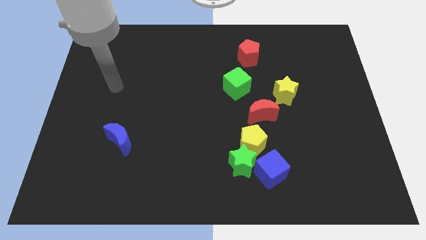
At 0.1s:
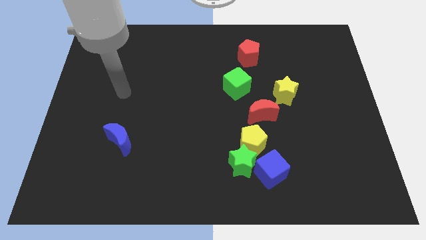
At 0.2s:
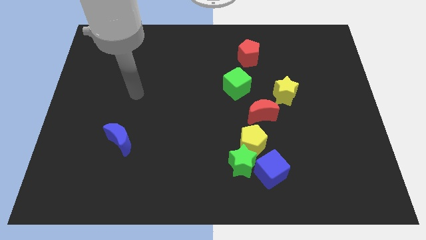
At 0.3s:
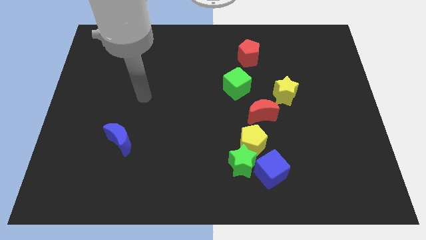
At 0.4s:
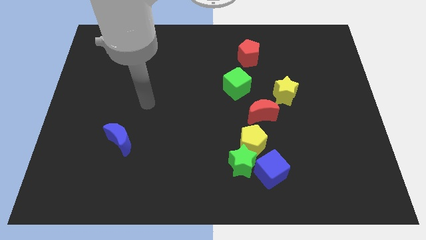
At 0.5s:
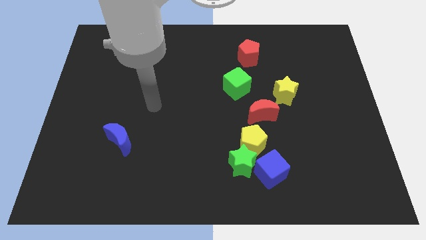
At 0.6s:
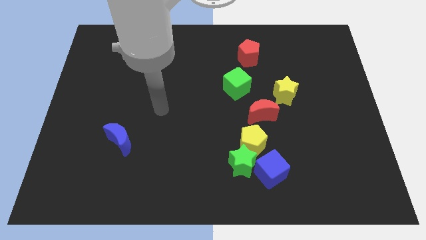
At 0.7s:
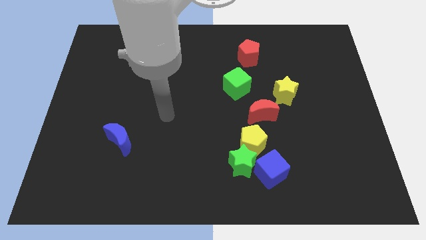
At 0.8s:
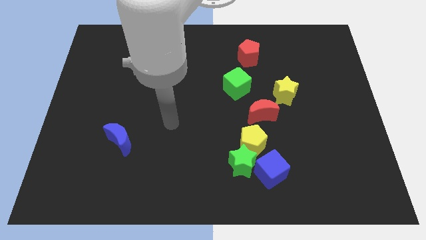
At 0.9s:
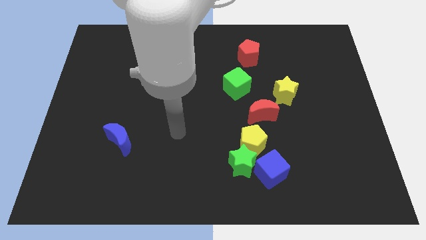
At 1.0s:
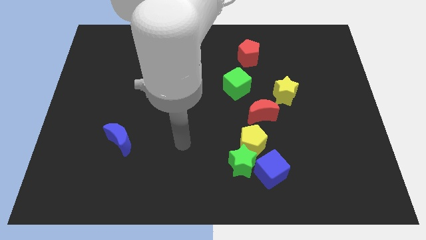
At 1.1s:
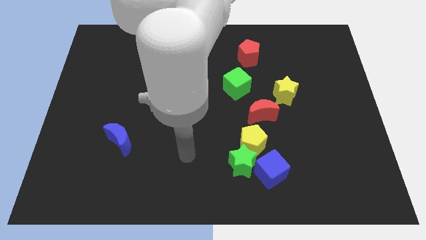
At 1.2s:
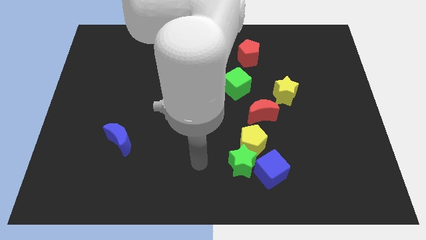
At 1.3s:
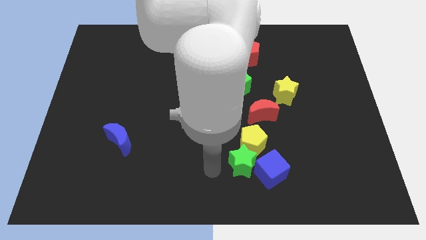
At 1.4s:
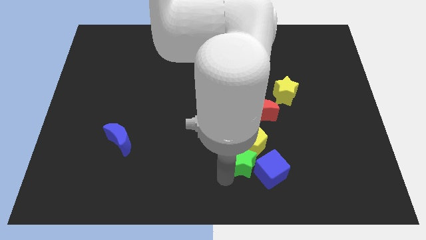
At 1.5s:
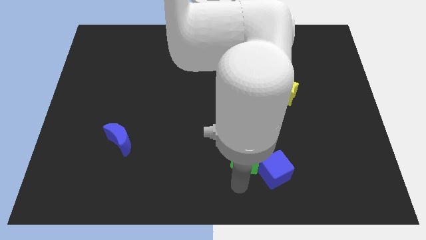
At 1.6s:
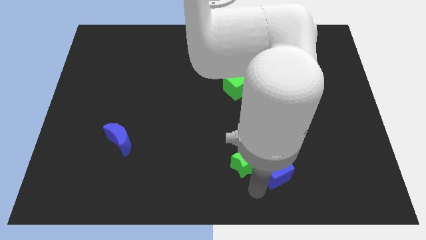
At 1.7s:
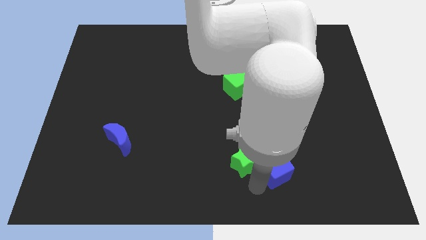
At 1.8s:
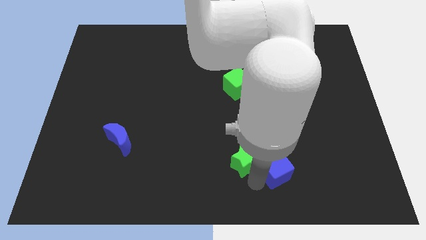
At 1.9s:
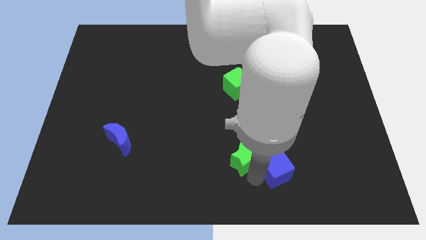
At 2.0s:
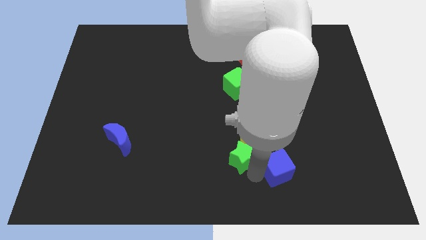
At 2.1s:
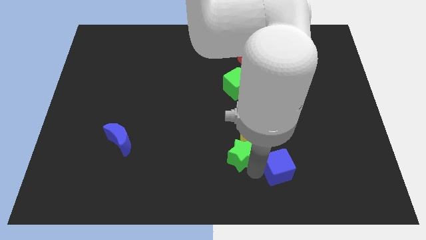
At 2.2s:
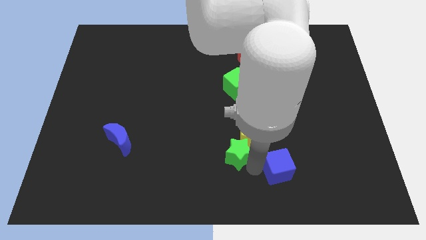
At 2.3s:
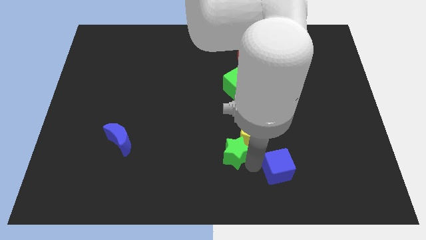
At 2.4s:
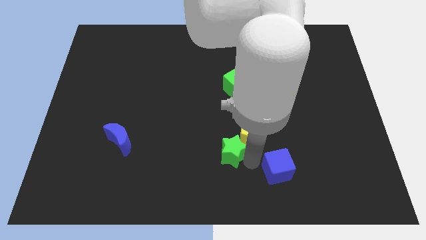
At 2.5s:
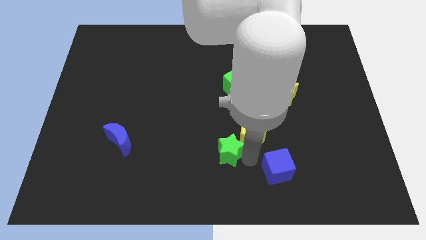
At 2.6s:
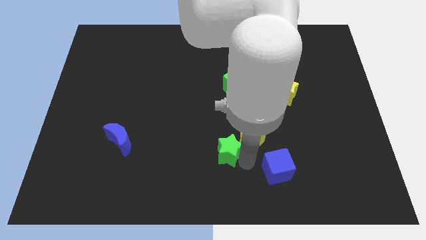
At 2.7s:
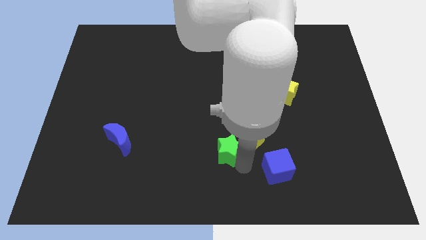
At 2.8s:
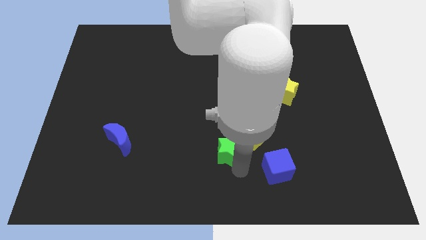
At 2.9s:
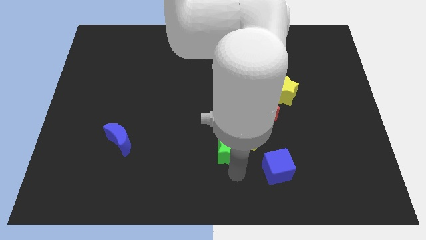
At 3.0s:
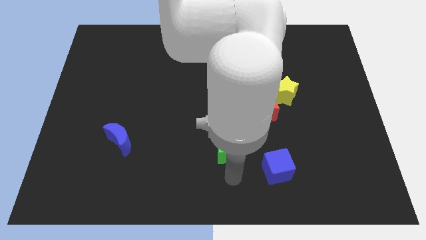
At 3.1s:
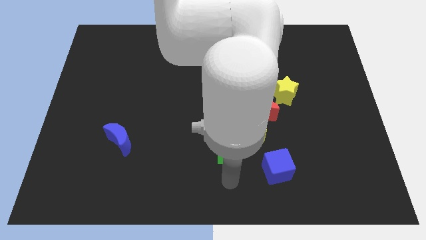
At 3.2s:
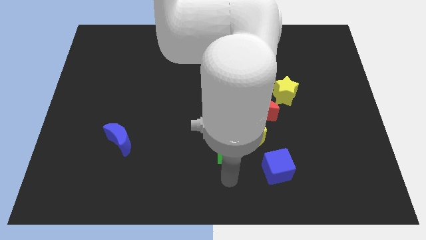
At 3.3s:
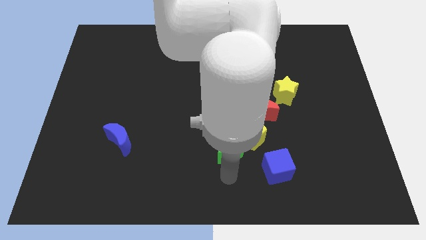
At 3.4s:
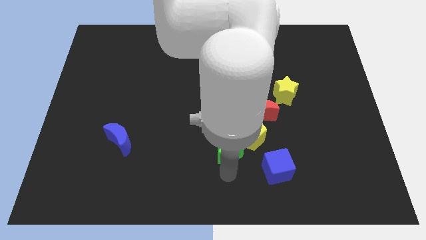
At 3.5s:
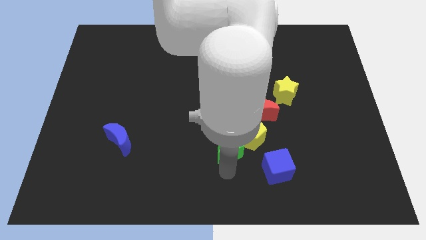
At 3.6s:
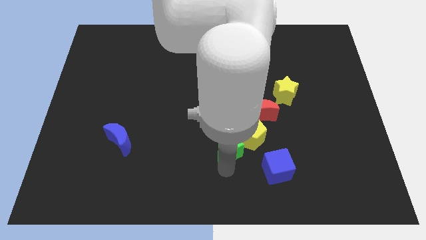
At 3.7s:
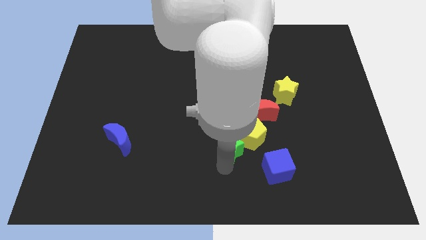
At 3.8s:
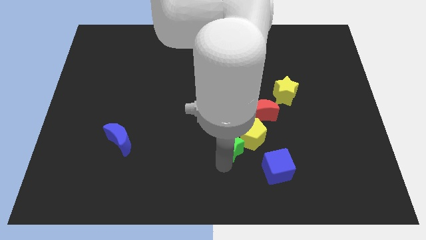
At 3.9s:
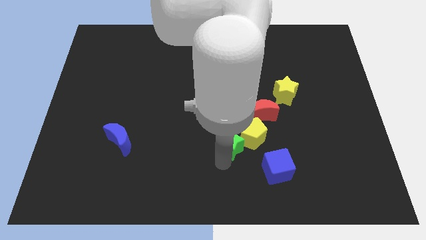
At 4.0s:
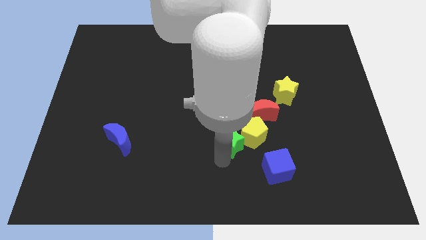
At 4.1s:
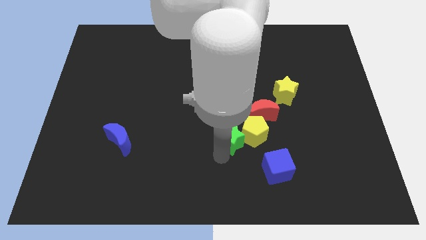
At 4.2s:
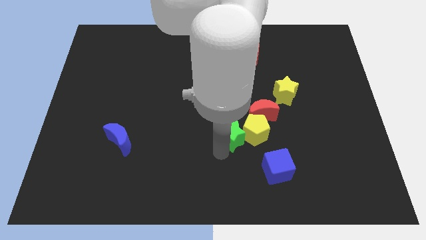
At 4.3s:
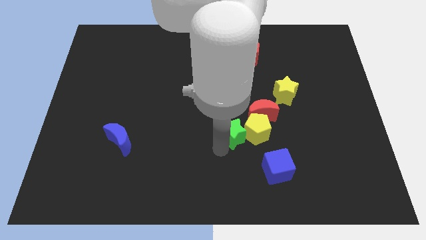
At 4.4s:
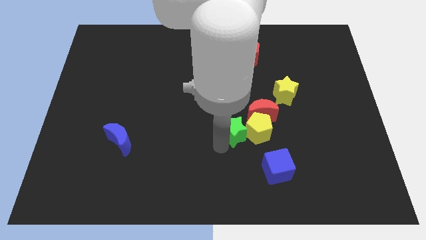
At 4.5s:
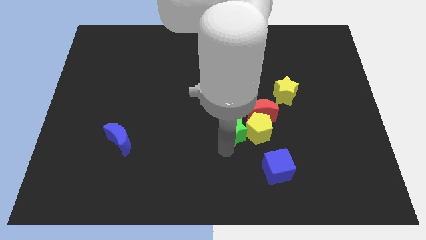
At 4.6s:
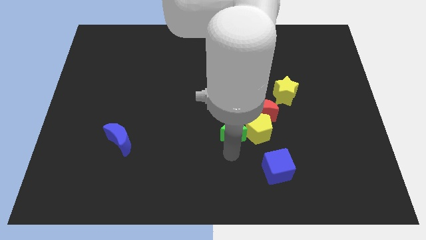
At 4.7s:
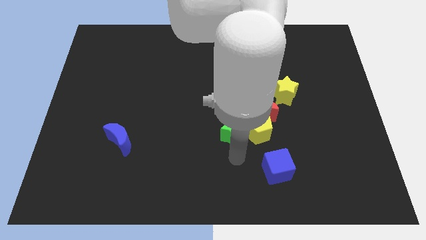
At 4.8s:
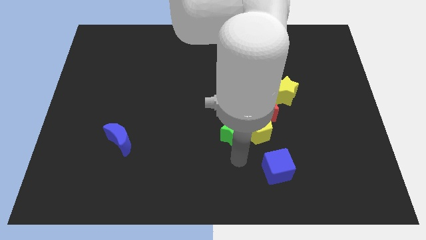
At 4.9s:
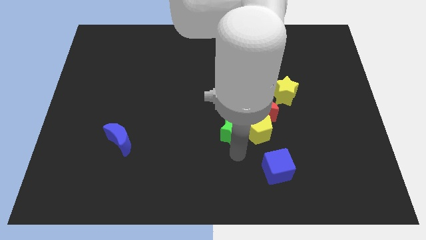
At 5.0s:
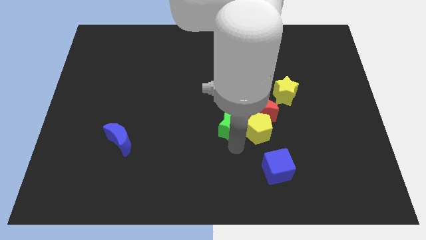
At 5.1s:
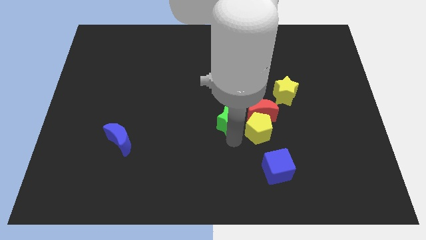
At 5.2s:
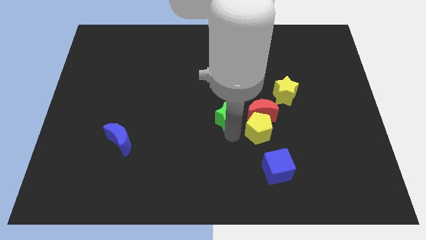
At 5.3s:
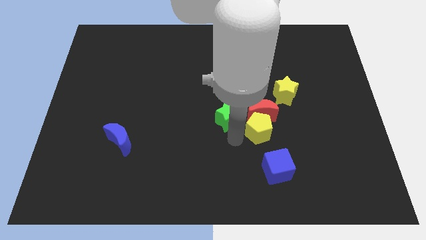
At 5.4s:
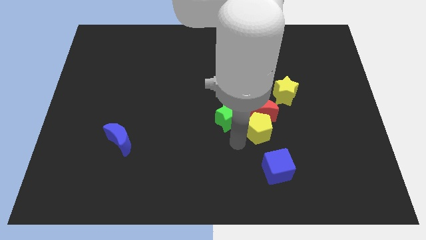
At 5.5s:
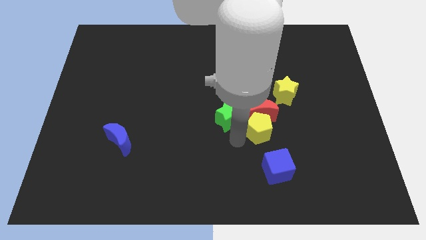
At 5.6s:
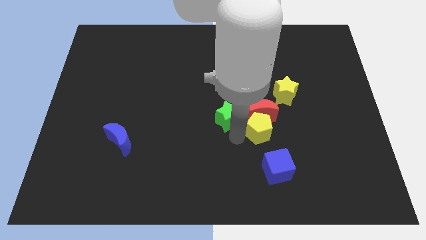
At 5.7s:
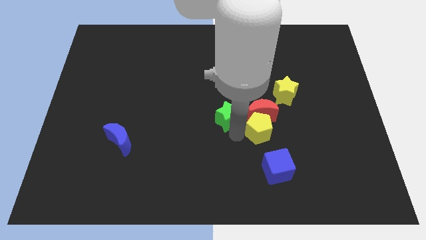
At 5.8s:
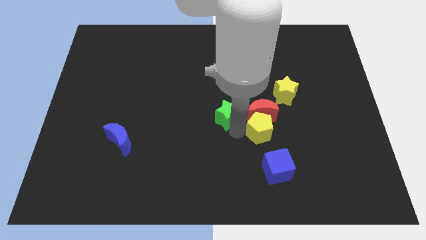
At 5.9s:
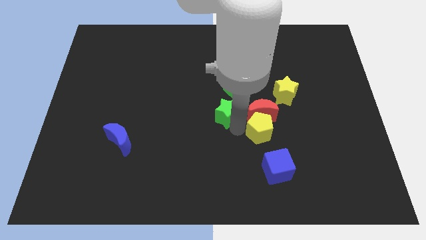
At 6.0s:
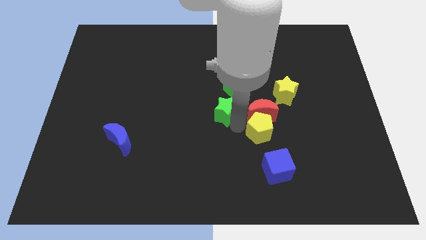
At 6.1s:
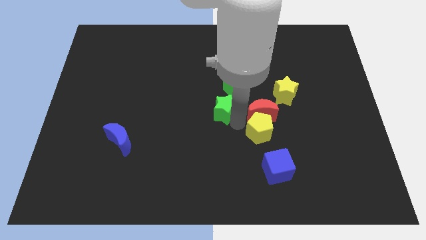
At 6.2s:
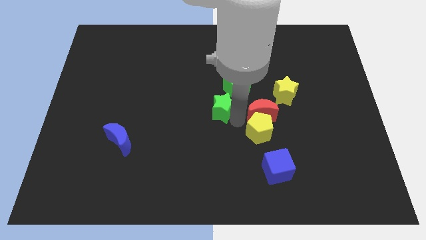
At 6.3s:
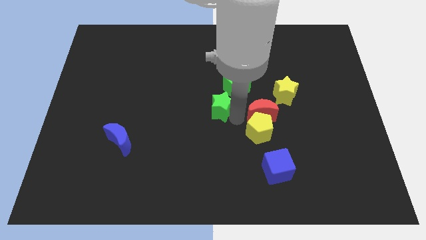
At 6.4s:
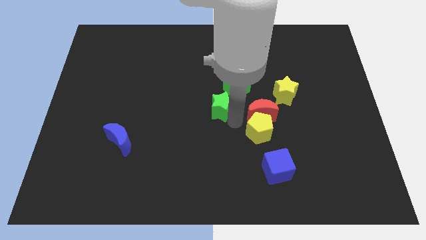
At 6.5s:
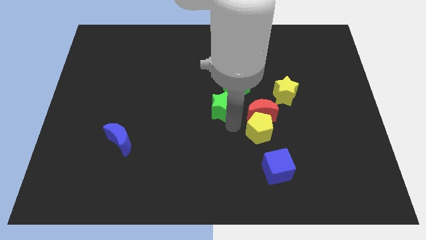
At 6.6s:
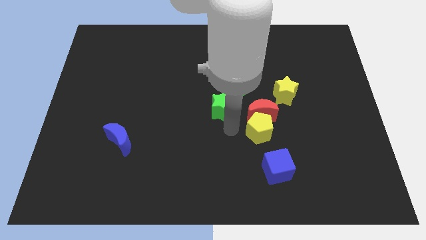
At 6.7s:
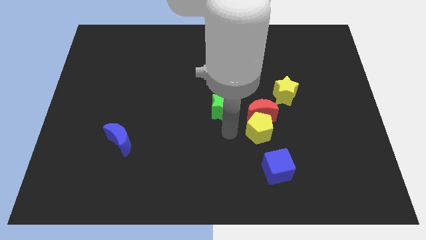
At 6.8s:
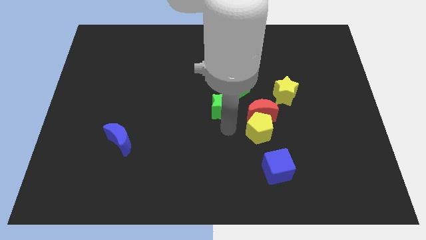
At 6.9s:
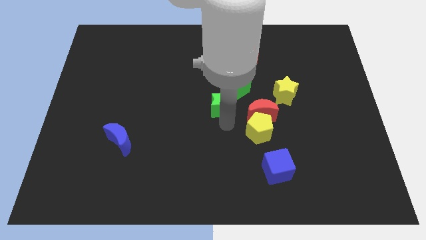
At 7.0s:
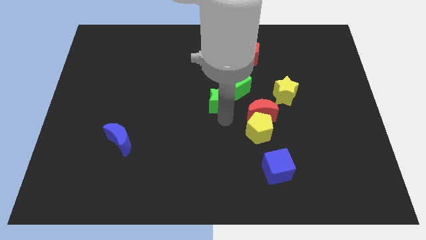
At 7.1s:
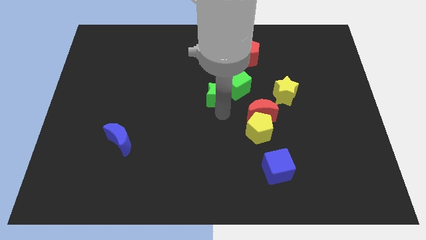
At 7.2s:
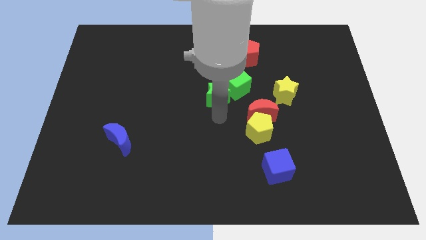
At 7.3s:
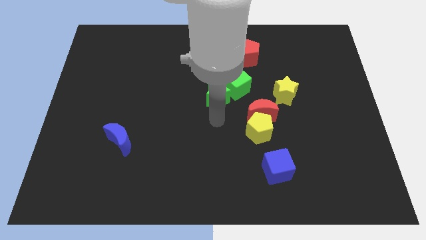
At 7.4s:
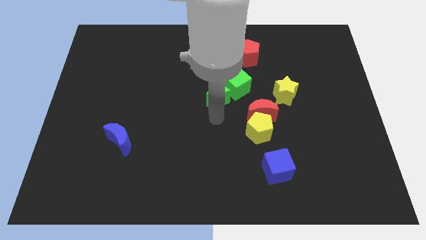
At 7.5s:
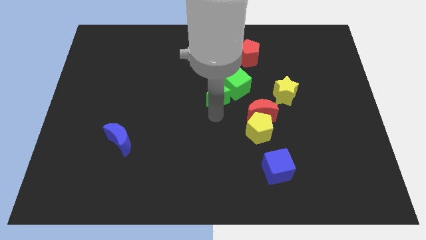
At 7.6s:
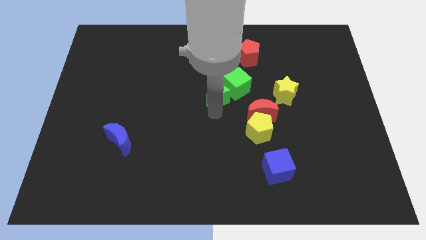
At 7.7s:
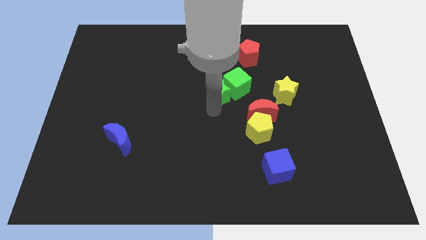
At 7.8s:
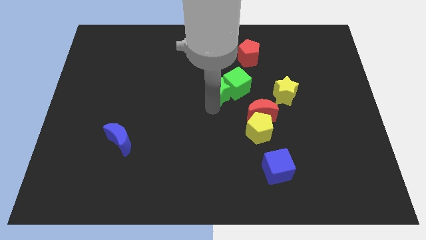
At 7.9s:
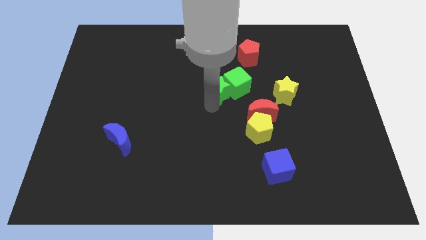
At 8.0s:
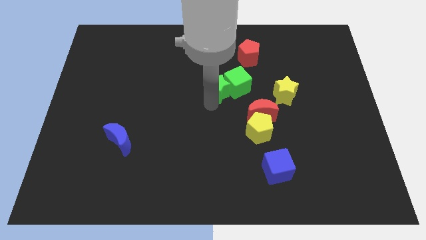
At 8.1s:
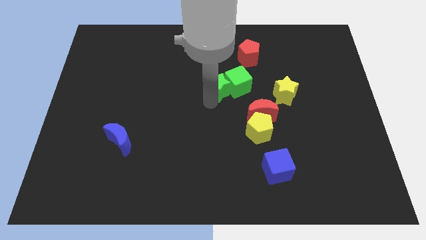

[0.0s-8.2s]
push the green star diagonally up and to the left of the green cube
